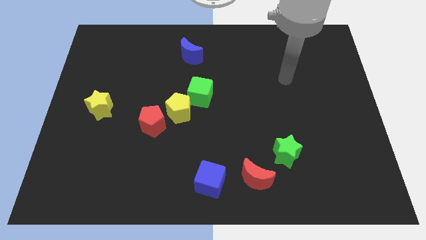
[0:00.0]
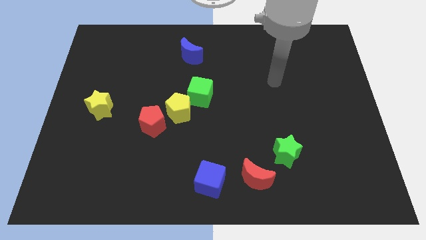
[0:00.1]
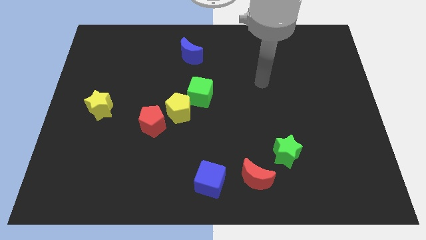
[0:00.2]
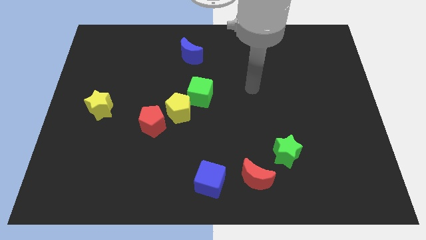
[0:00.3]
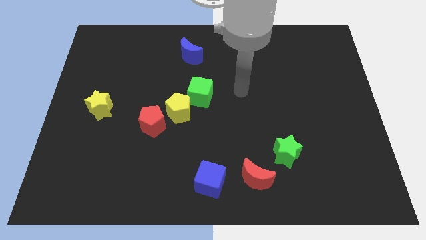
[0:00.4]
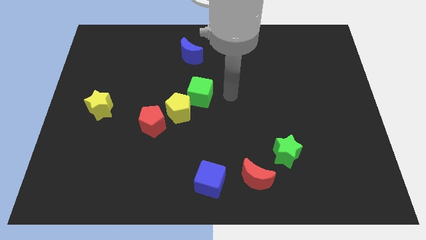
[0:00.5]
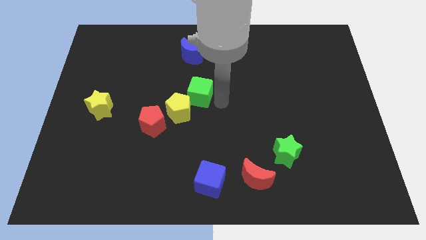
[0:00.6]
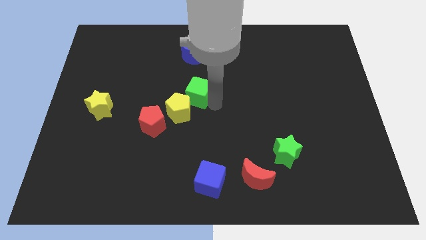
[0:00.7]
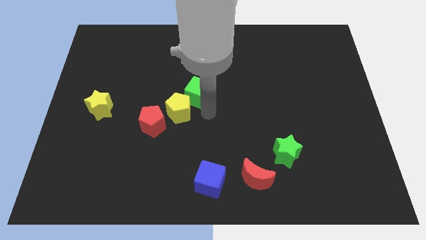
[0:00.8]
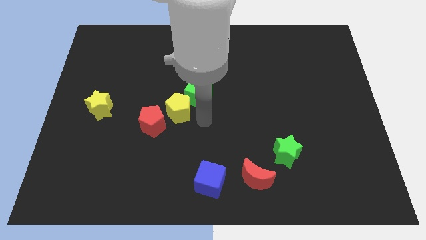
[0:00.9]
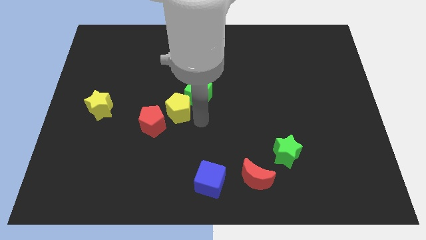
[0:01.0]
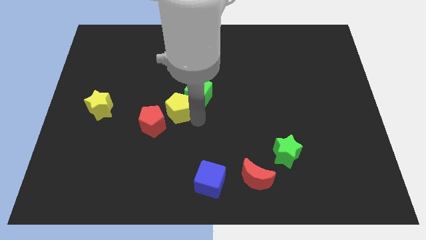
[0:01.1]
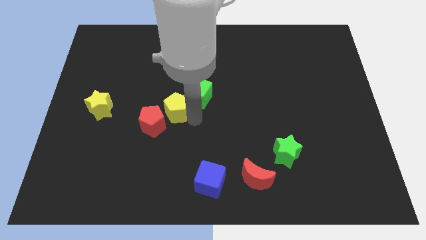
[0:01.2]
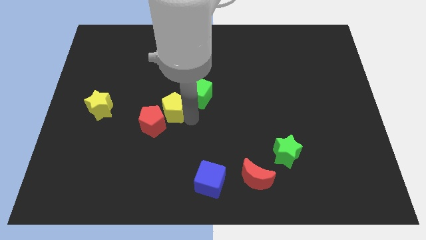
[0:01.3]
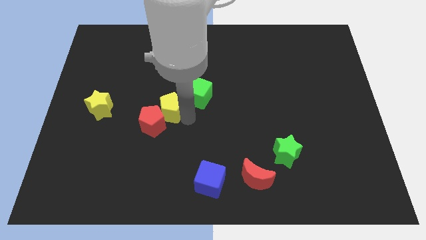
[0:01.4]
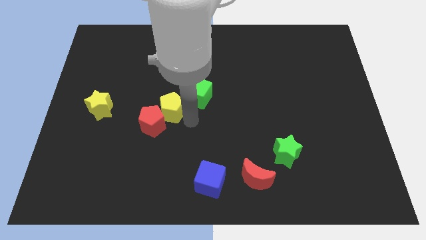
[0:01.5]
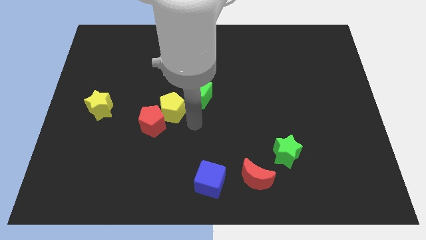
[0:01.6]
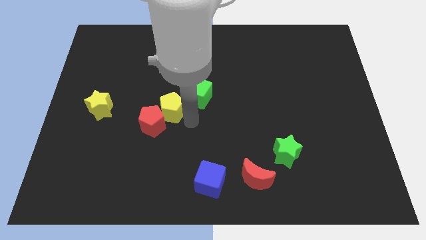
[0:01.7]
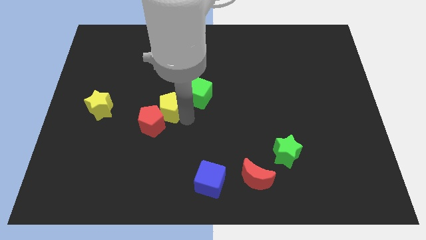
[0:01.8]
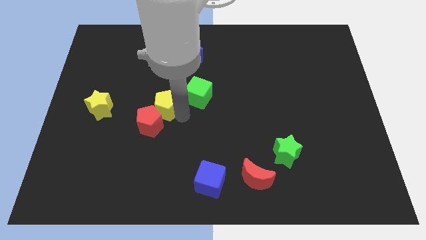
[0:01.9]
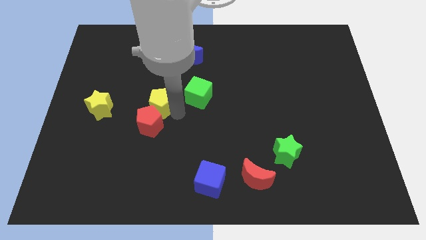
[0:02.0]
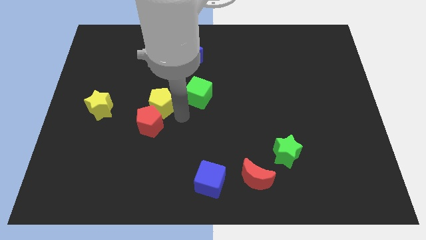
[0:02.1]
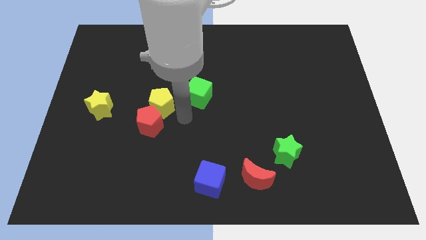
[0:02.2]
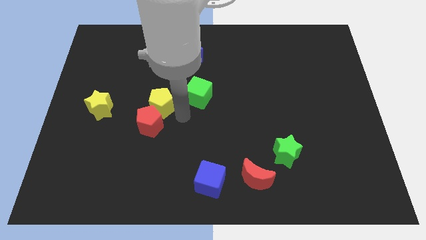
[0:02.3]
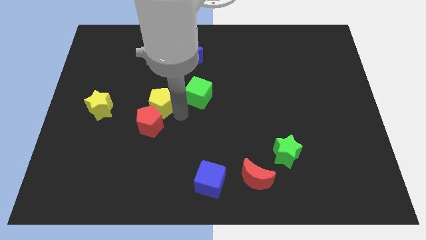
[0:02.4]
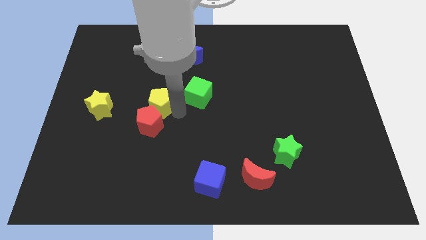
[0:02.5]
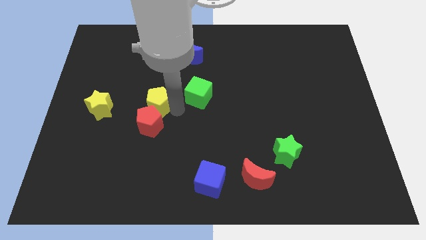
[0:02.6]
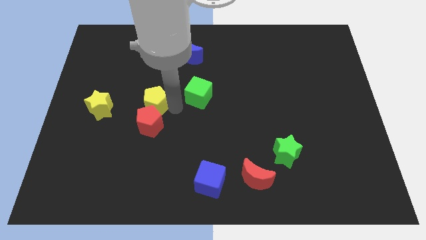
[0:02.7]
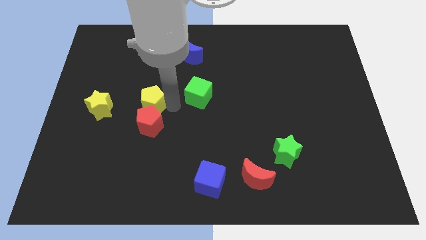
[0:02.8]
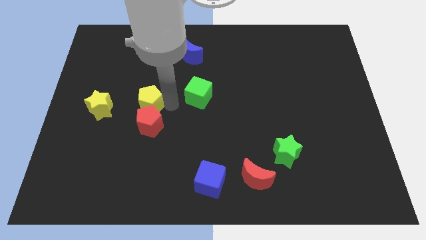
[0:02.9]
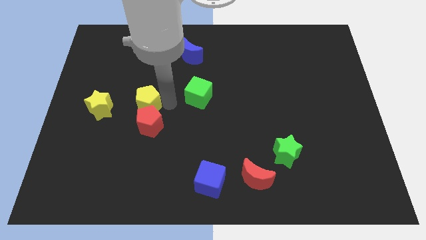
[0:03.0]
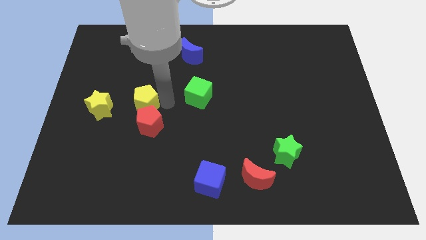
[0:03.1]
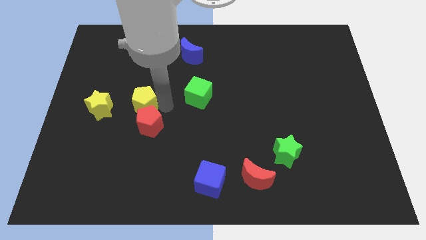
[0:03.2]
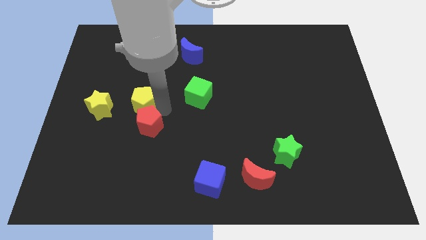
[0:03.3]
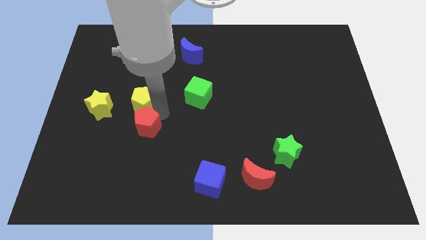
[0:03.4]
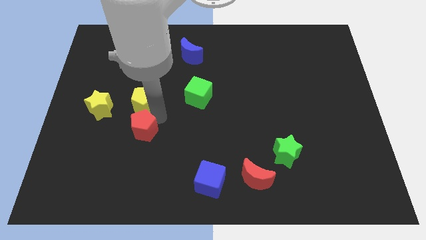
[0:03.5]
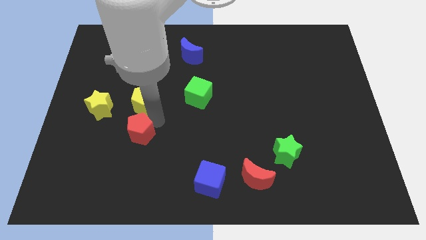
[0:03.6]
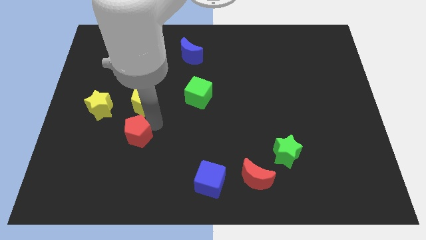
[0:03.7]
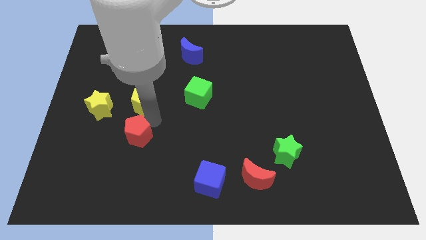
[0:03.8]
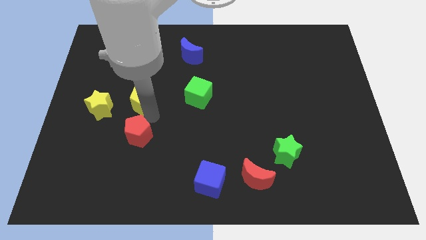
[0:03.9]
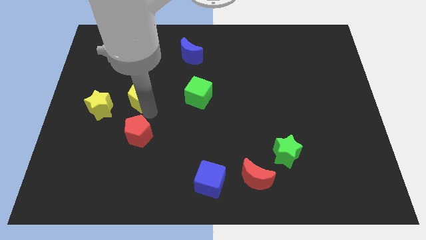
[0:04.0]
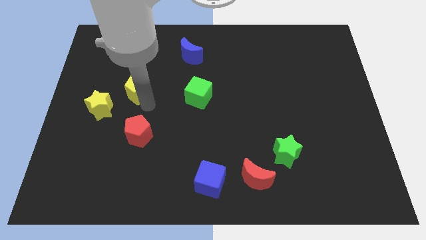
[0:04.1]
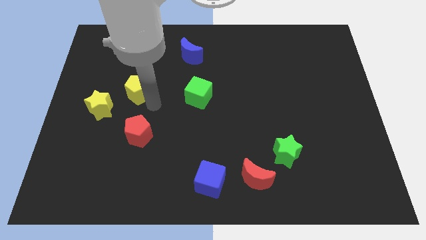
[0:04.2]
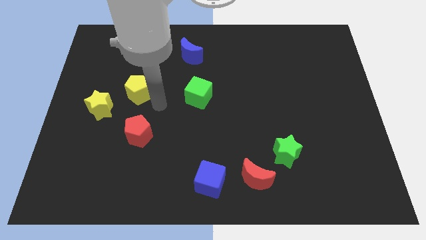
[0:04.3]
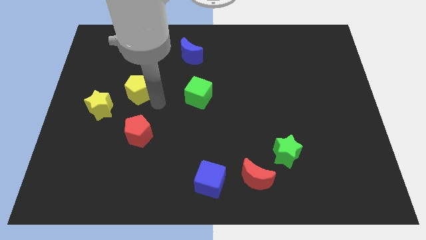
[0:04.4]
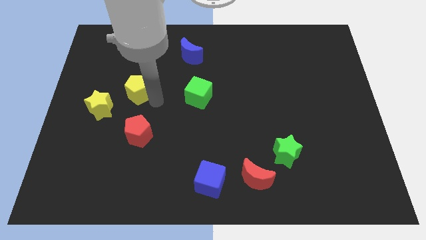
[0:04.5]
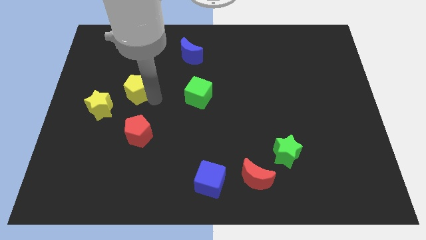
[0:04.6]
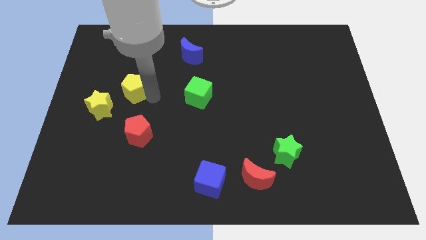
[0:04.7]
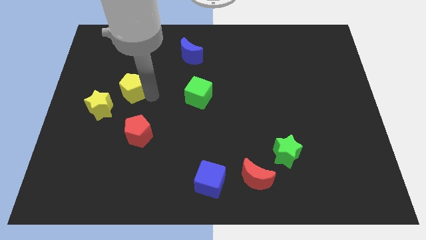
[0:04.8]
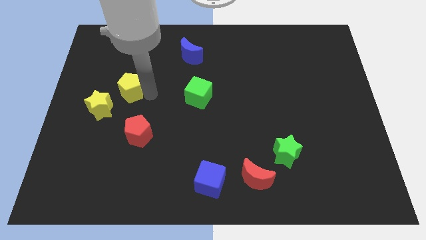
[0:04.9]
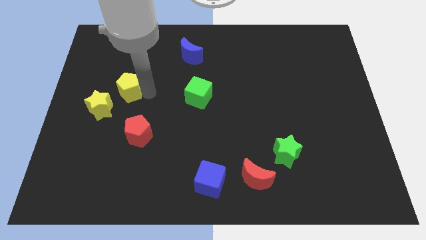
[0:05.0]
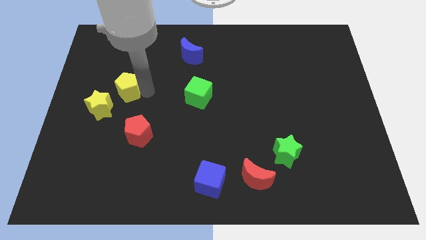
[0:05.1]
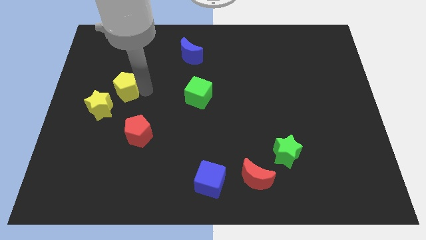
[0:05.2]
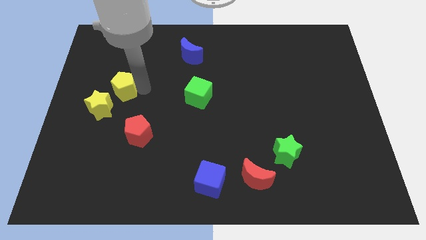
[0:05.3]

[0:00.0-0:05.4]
put the yellow pentagon to the top of the yellow star

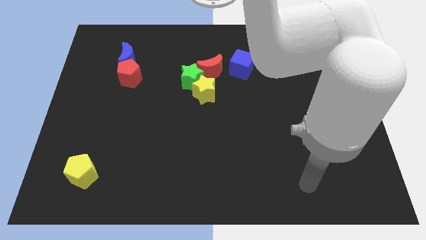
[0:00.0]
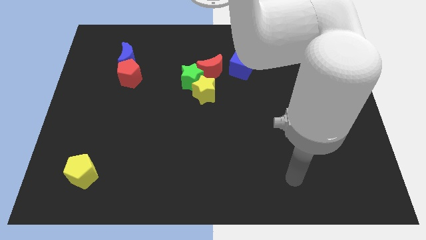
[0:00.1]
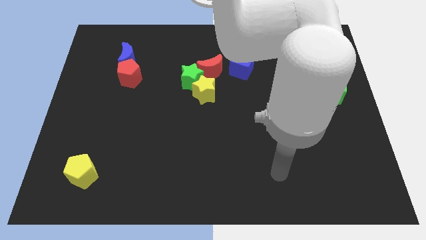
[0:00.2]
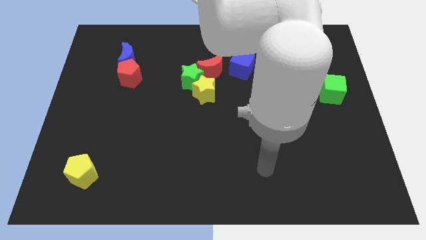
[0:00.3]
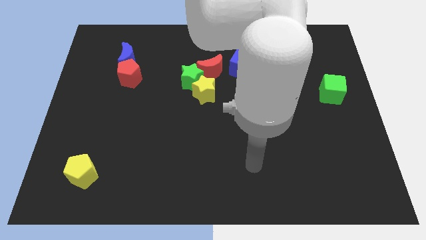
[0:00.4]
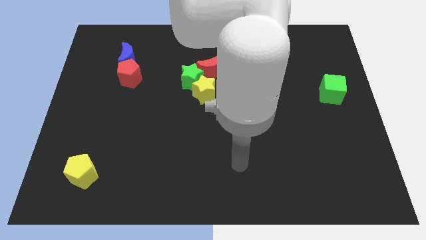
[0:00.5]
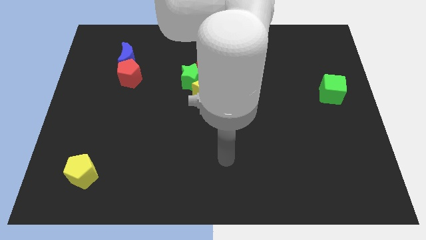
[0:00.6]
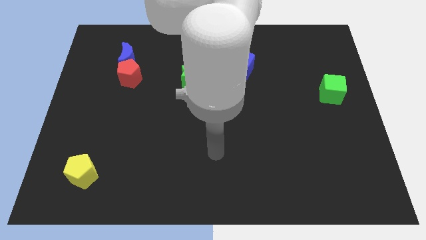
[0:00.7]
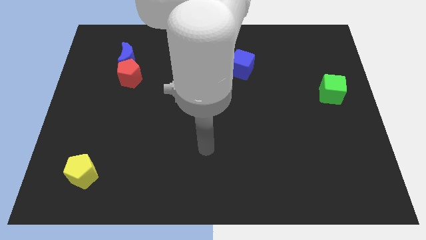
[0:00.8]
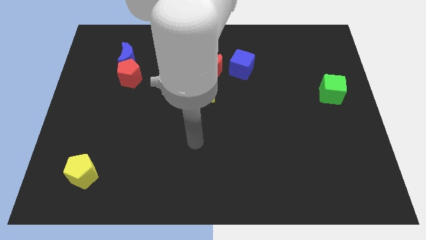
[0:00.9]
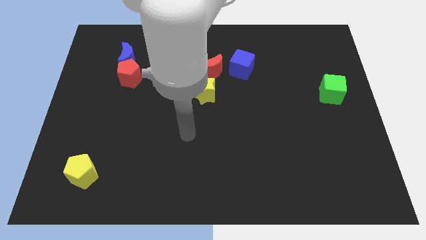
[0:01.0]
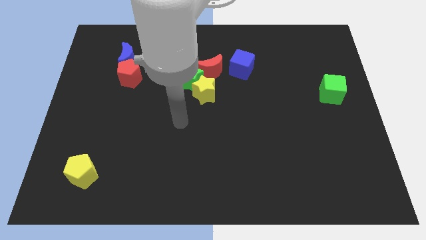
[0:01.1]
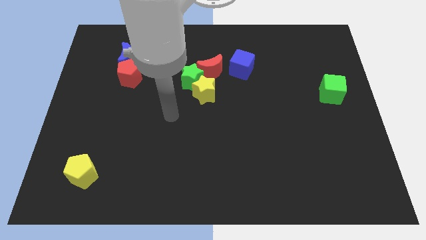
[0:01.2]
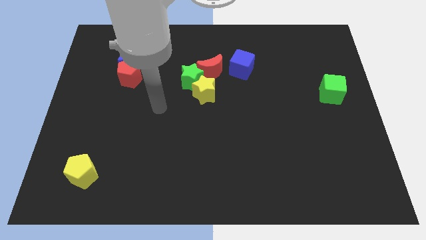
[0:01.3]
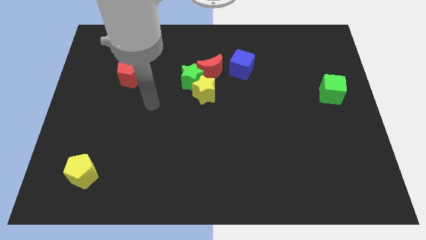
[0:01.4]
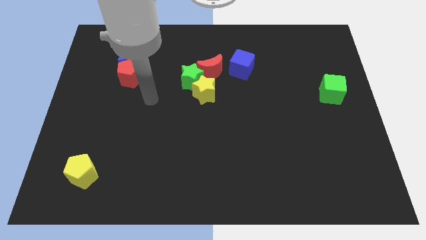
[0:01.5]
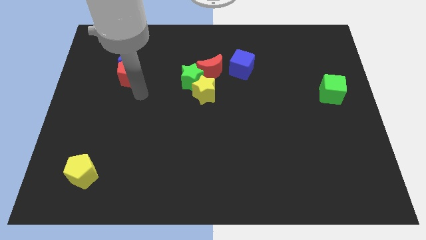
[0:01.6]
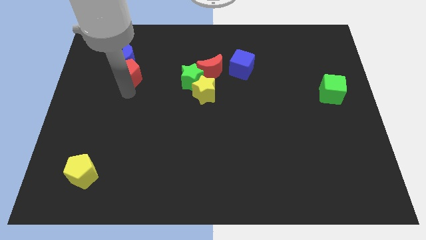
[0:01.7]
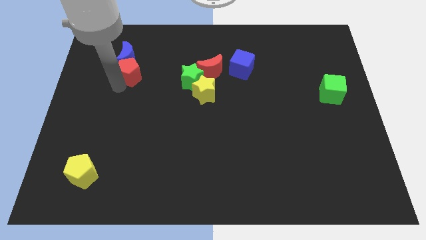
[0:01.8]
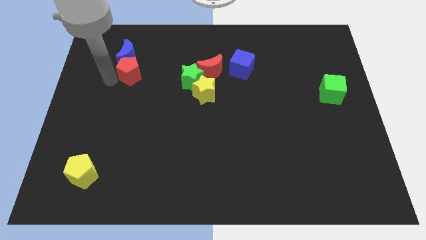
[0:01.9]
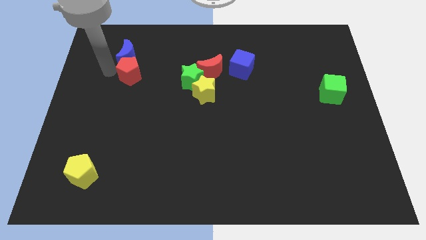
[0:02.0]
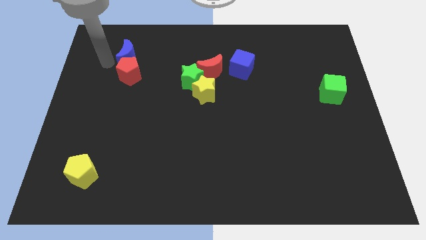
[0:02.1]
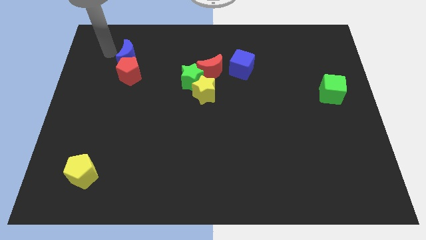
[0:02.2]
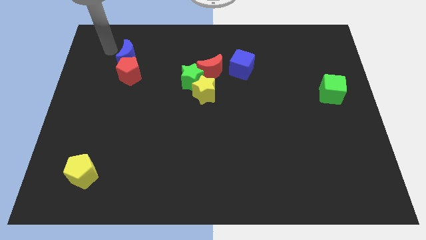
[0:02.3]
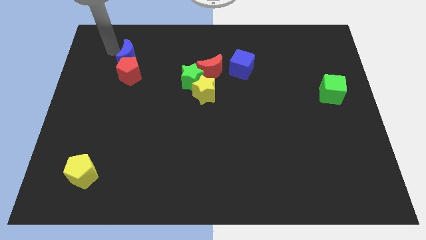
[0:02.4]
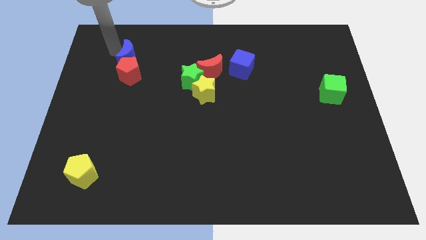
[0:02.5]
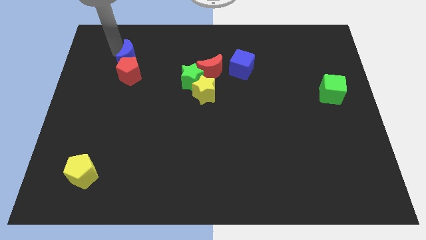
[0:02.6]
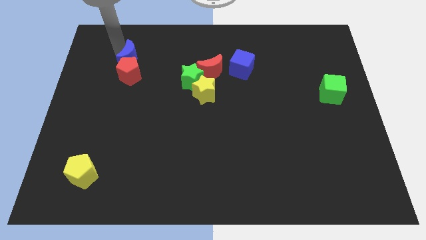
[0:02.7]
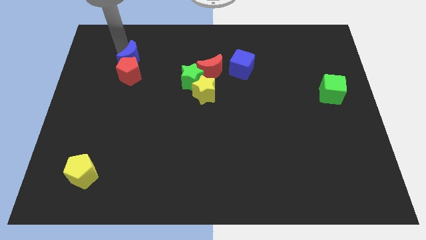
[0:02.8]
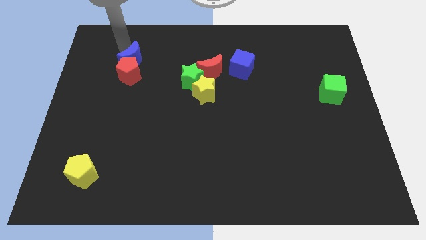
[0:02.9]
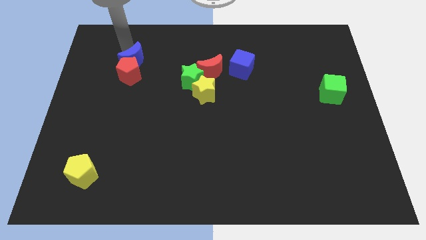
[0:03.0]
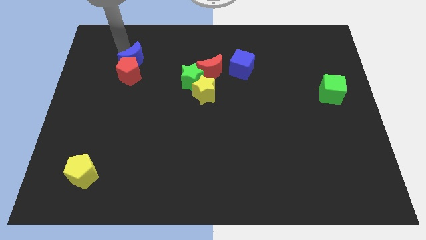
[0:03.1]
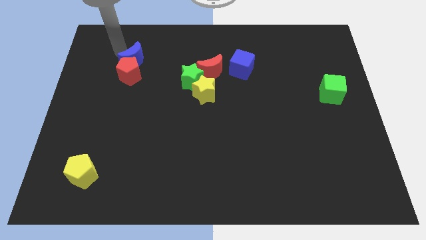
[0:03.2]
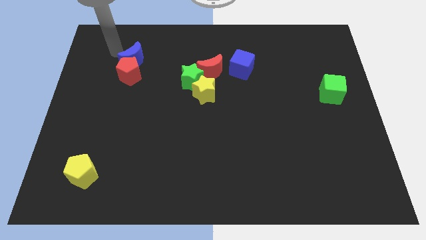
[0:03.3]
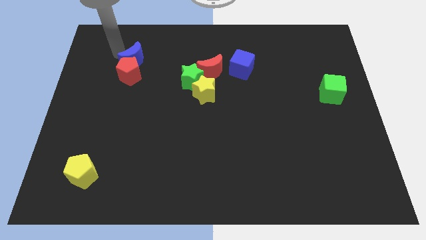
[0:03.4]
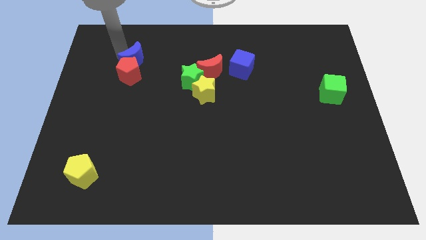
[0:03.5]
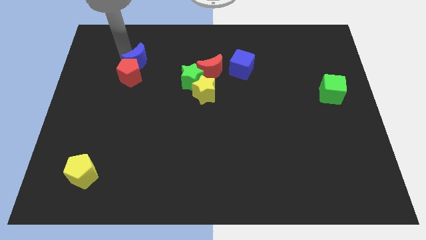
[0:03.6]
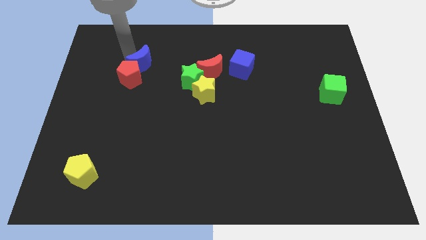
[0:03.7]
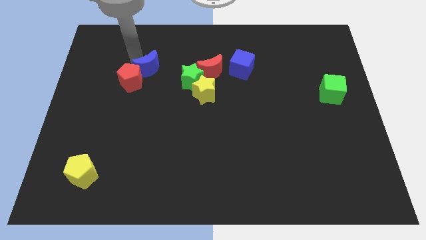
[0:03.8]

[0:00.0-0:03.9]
push the blue moon to the left of the red moon
